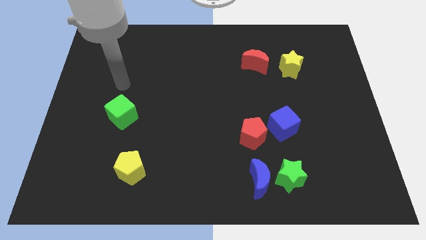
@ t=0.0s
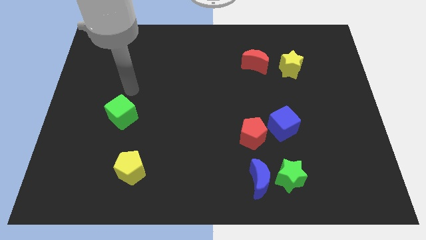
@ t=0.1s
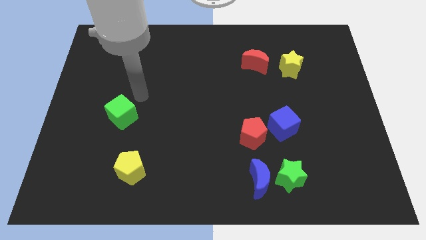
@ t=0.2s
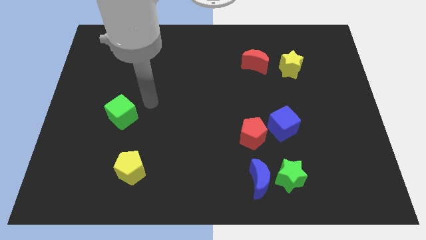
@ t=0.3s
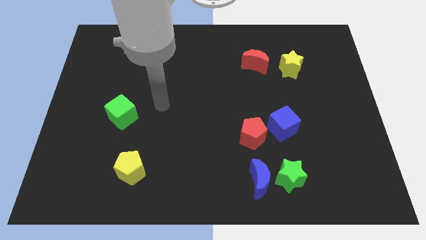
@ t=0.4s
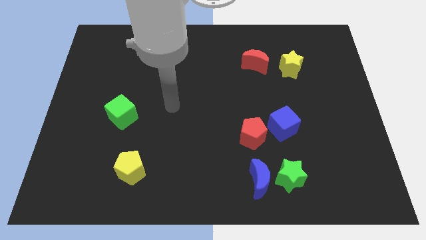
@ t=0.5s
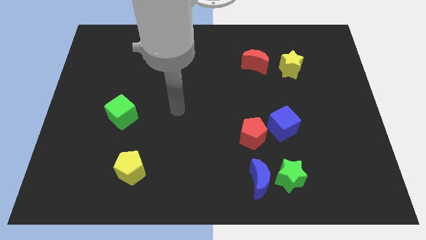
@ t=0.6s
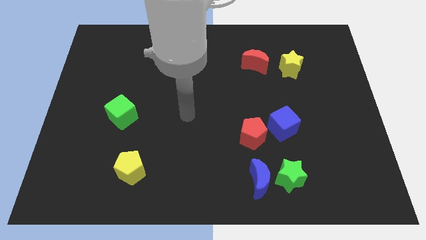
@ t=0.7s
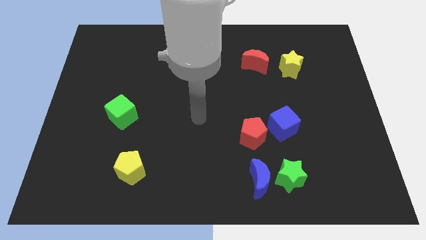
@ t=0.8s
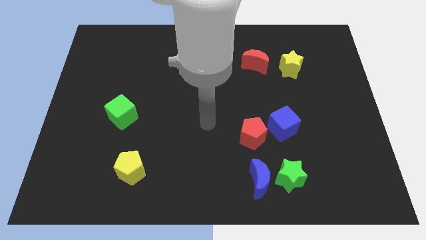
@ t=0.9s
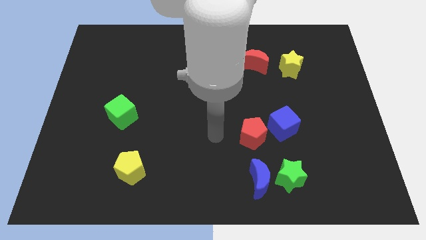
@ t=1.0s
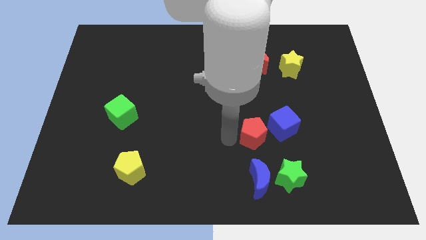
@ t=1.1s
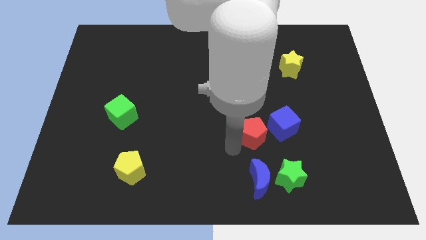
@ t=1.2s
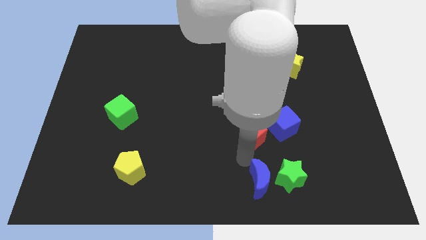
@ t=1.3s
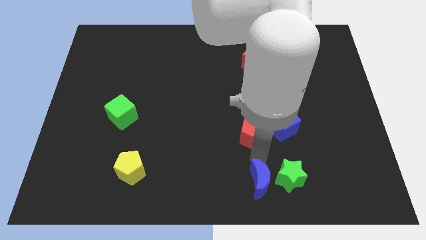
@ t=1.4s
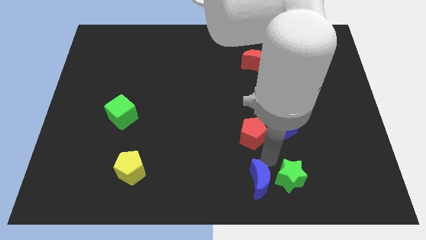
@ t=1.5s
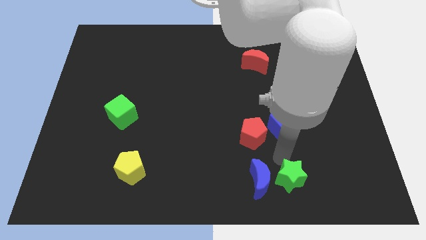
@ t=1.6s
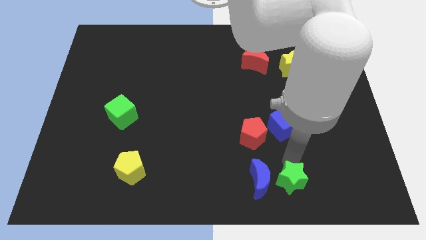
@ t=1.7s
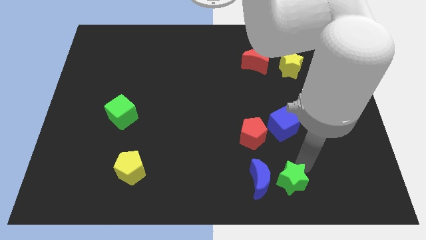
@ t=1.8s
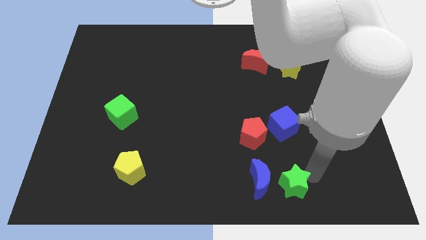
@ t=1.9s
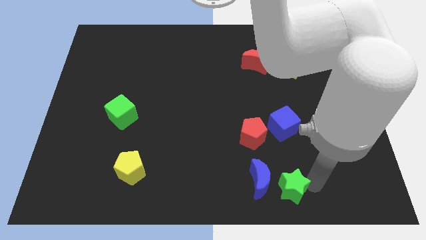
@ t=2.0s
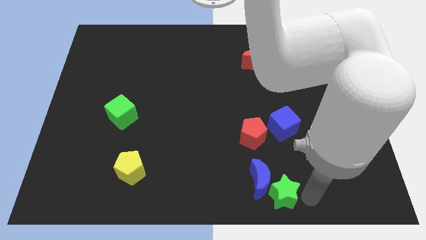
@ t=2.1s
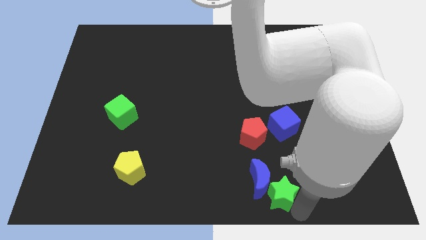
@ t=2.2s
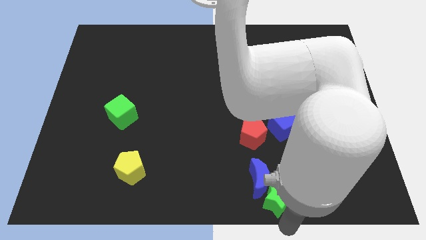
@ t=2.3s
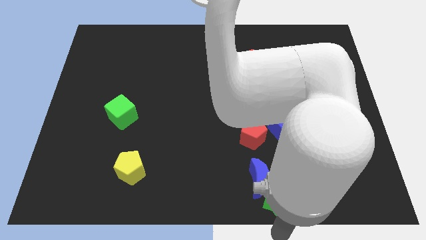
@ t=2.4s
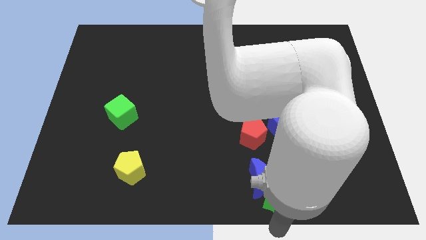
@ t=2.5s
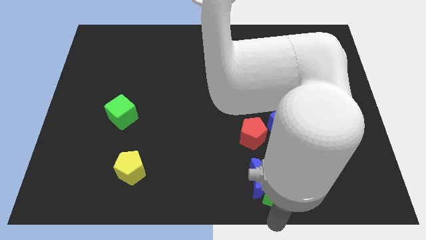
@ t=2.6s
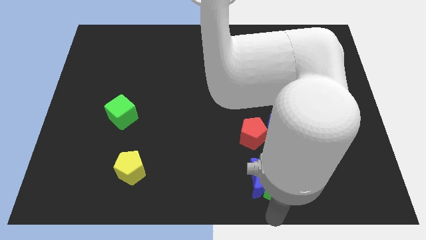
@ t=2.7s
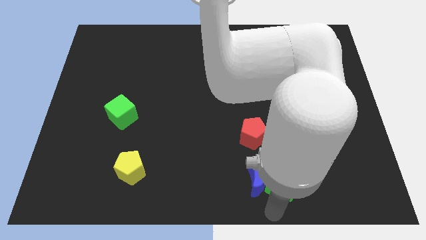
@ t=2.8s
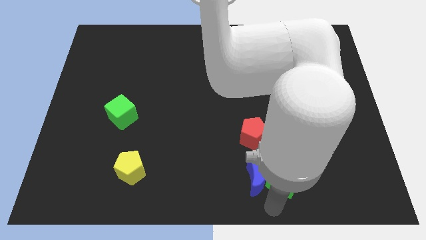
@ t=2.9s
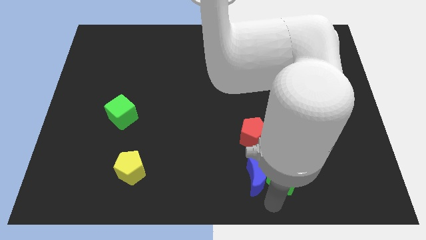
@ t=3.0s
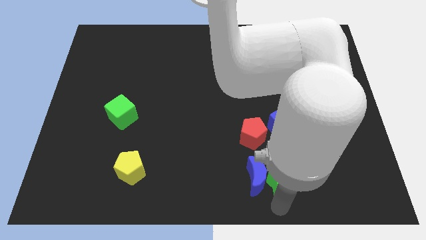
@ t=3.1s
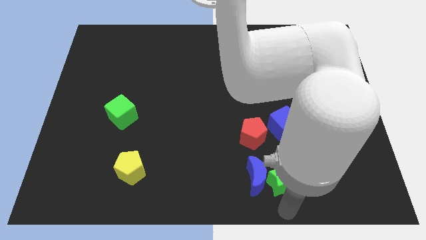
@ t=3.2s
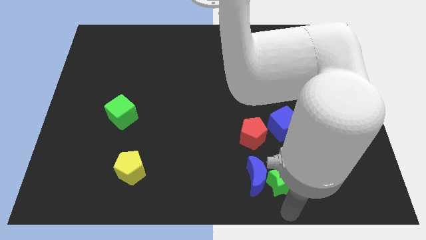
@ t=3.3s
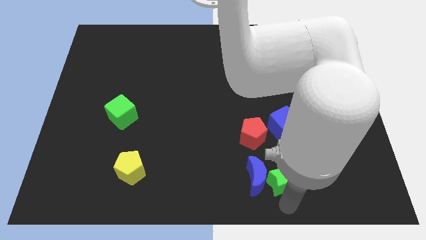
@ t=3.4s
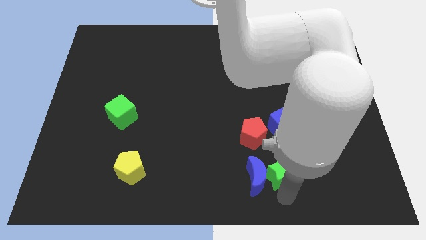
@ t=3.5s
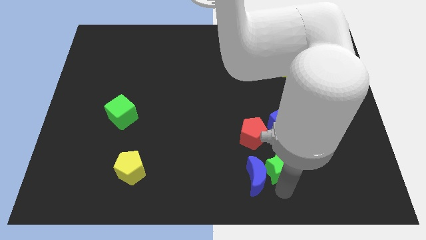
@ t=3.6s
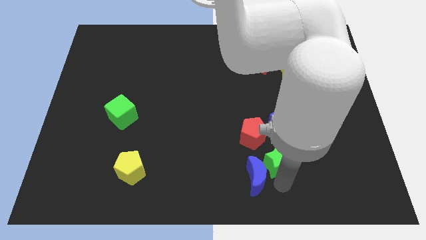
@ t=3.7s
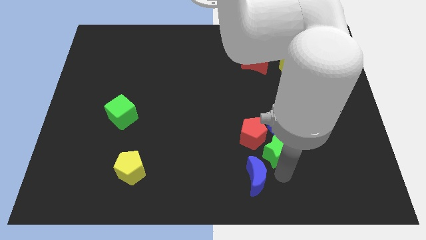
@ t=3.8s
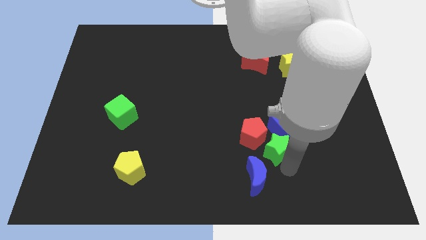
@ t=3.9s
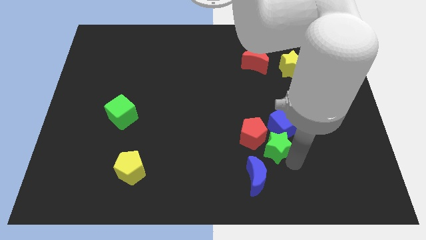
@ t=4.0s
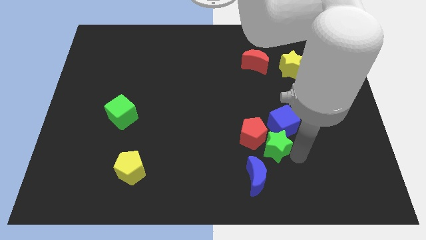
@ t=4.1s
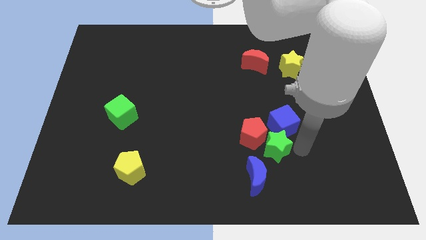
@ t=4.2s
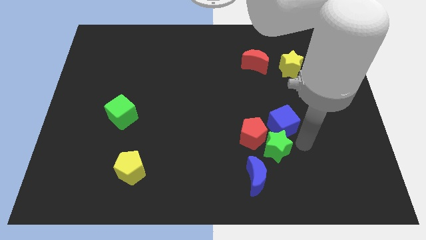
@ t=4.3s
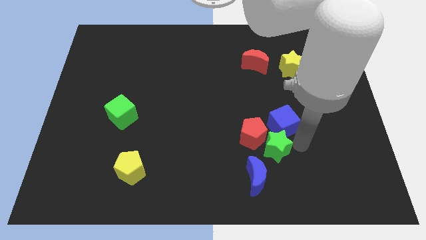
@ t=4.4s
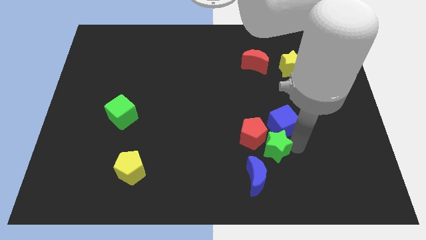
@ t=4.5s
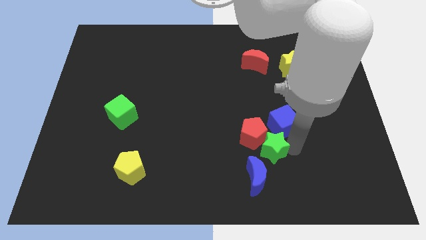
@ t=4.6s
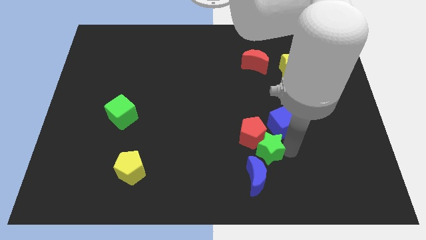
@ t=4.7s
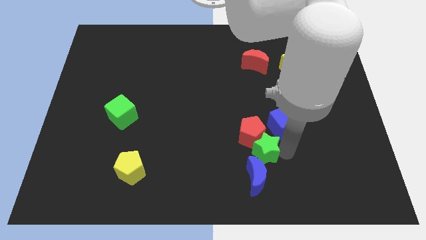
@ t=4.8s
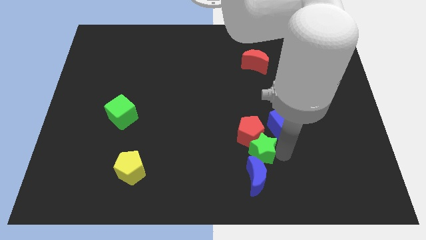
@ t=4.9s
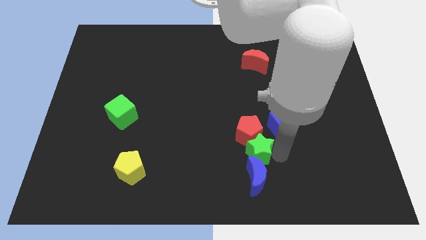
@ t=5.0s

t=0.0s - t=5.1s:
put the green star to the top left side of the blue moon

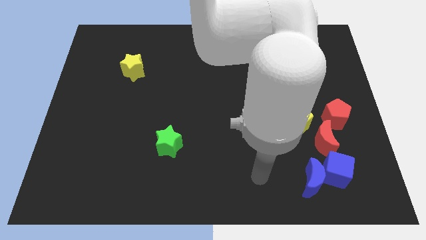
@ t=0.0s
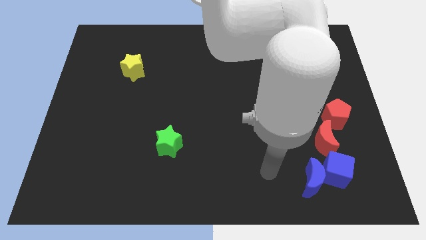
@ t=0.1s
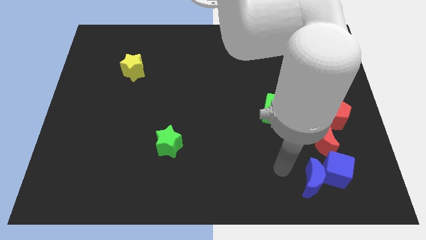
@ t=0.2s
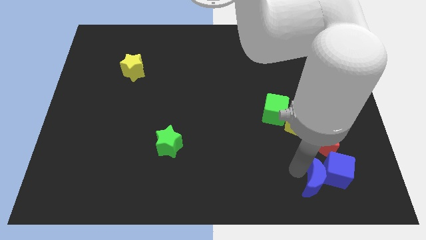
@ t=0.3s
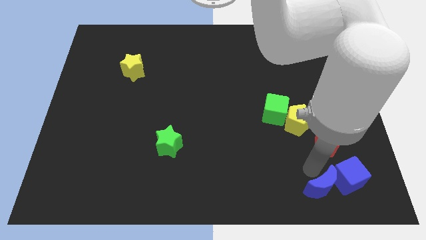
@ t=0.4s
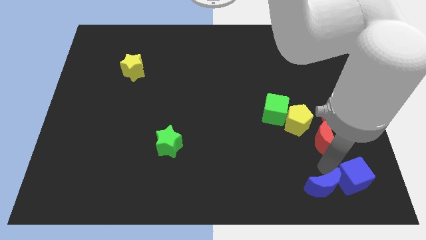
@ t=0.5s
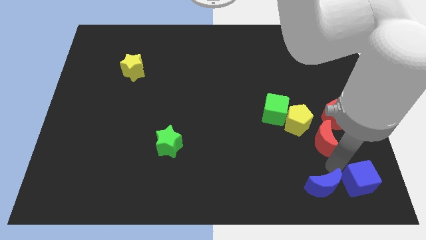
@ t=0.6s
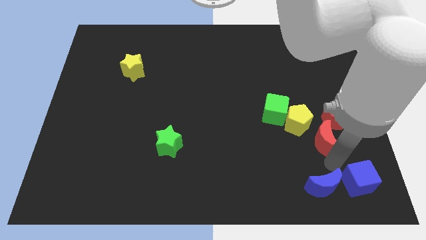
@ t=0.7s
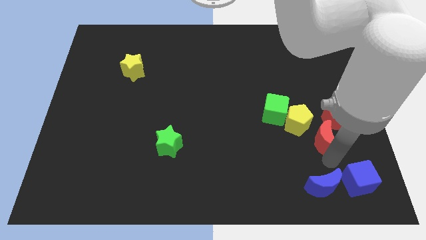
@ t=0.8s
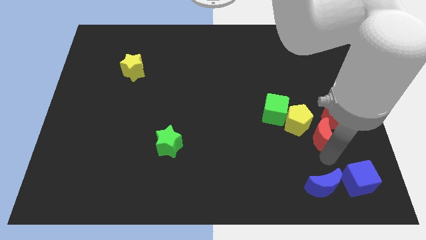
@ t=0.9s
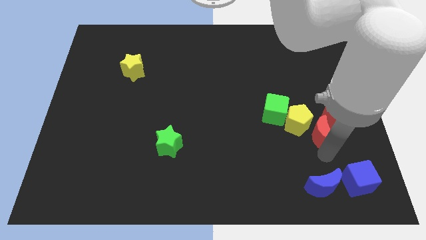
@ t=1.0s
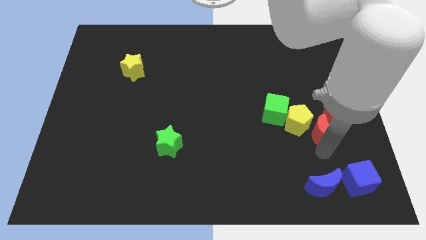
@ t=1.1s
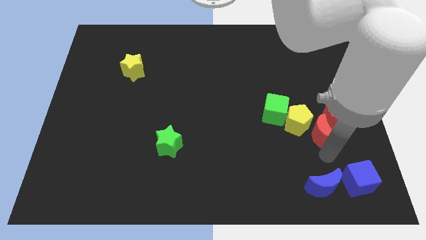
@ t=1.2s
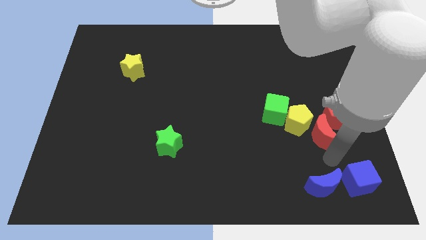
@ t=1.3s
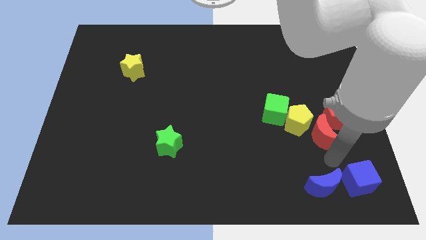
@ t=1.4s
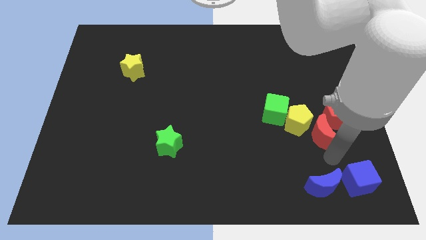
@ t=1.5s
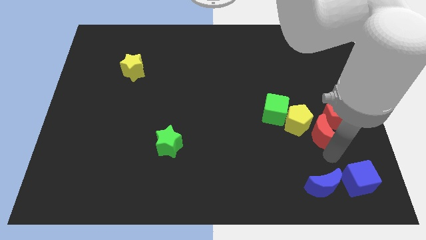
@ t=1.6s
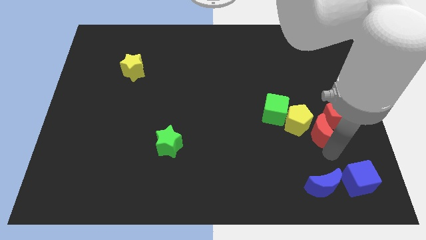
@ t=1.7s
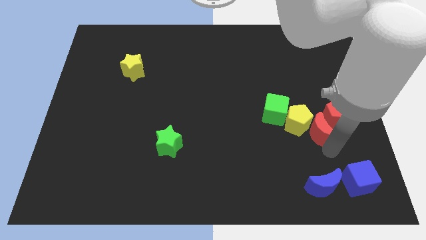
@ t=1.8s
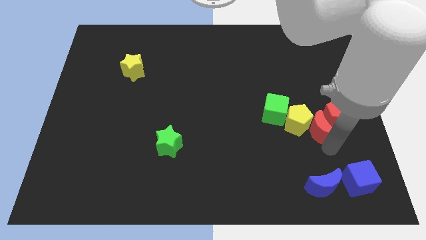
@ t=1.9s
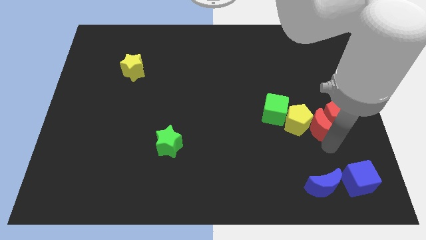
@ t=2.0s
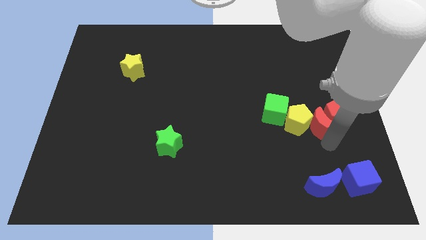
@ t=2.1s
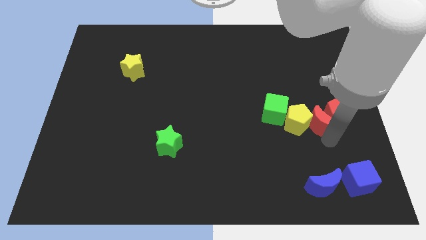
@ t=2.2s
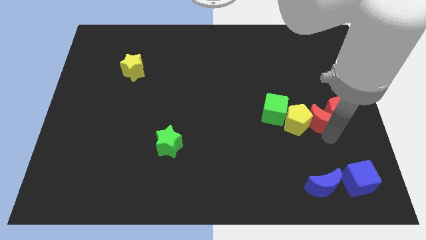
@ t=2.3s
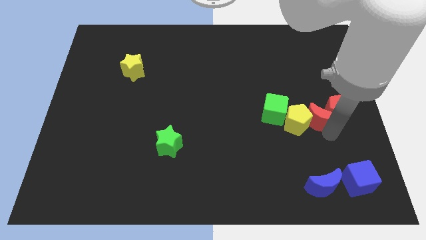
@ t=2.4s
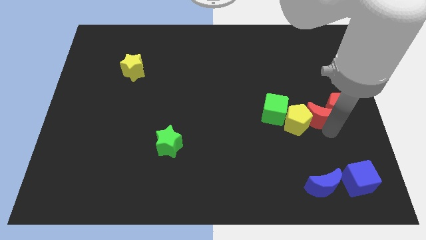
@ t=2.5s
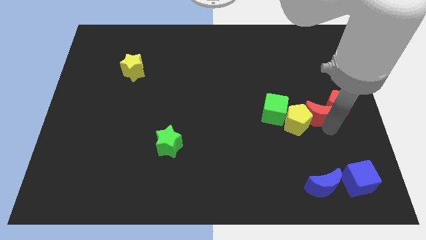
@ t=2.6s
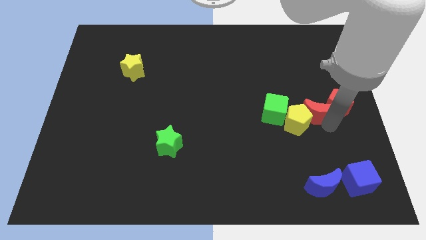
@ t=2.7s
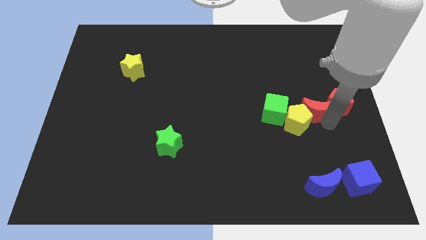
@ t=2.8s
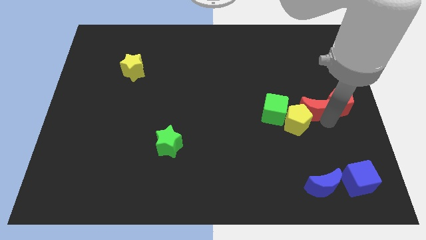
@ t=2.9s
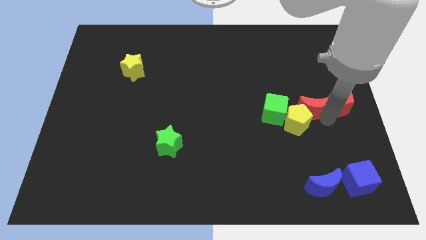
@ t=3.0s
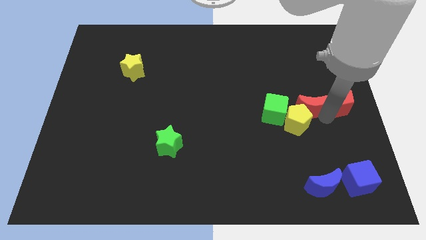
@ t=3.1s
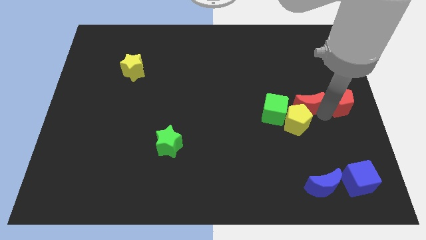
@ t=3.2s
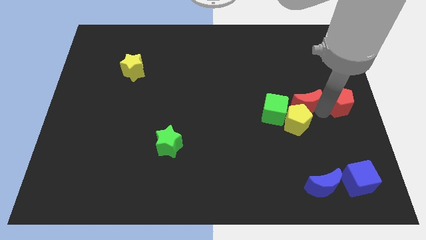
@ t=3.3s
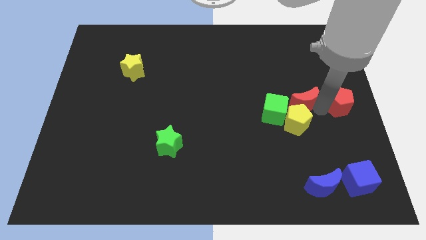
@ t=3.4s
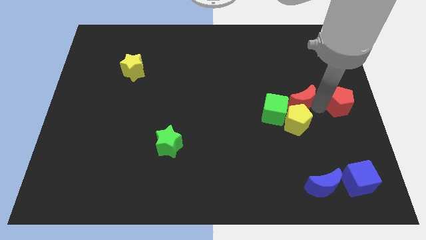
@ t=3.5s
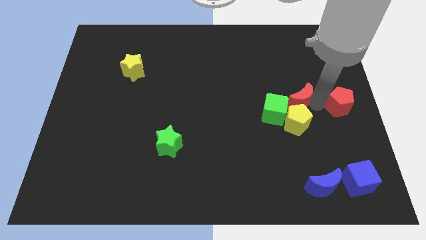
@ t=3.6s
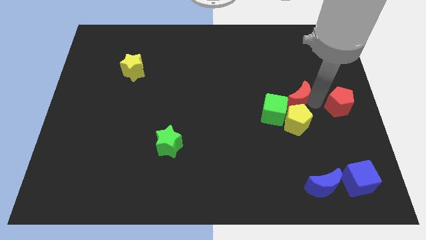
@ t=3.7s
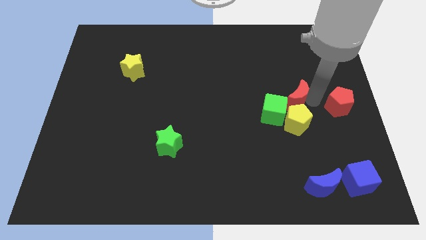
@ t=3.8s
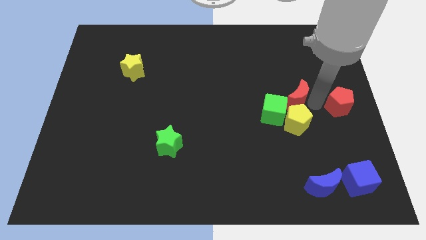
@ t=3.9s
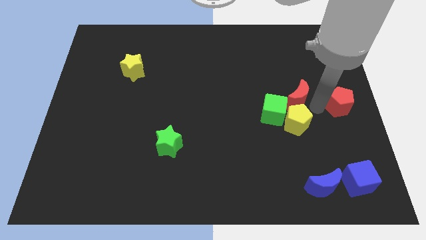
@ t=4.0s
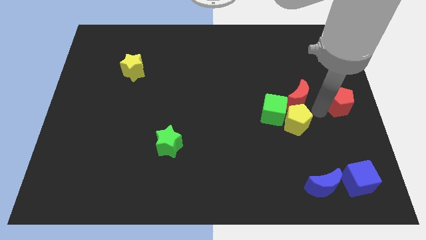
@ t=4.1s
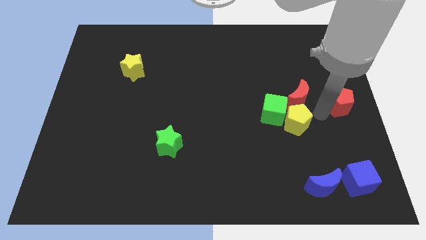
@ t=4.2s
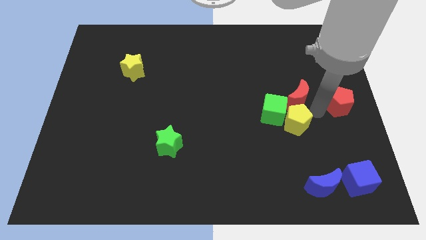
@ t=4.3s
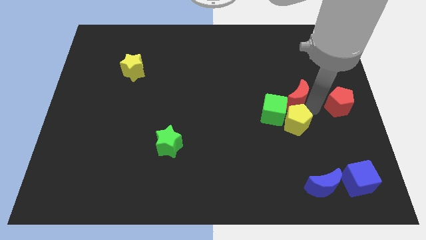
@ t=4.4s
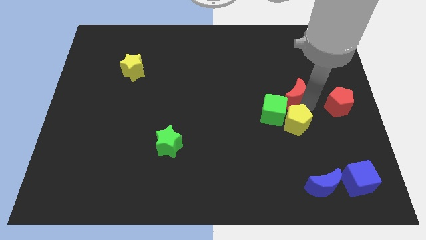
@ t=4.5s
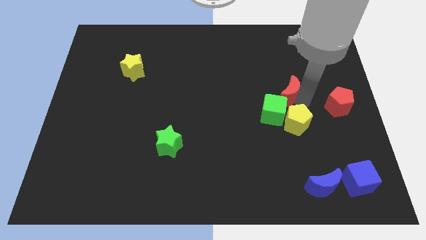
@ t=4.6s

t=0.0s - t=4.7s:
move the red moon above the green cube
